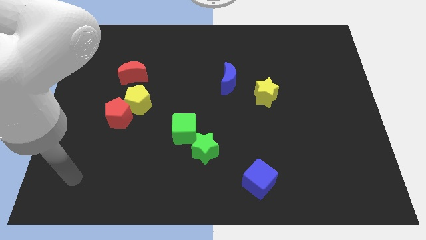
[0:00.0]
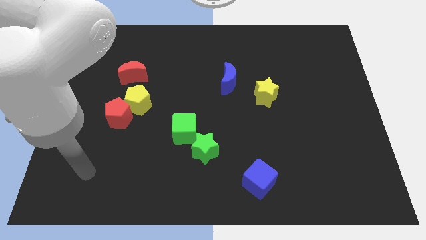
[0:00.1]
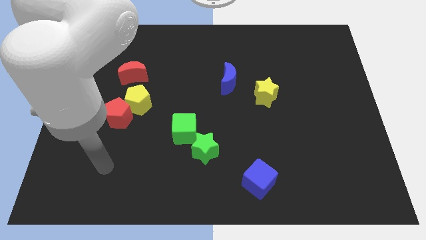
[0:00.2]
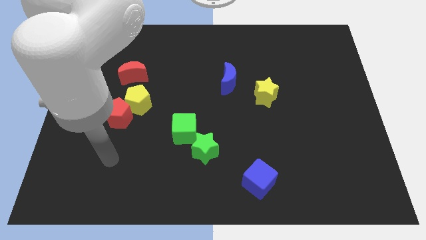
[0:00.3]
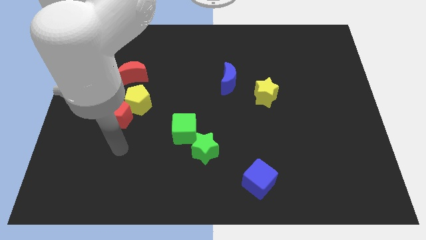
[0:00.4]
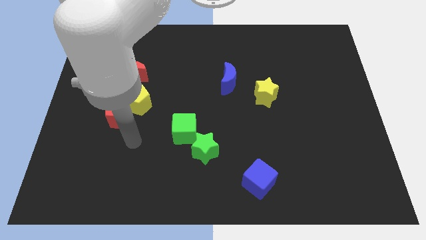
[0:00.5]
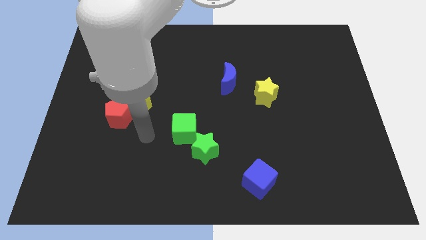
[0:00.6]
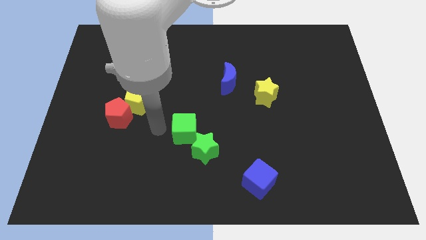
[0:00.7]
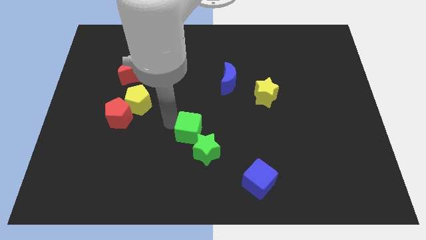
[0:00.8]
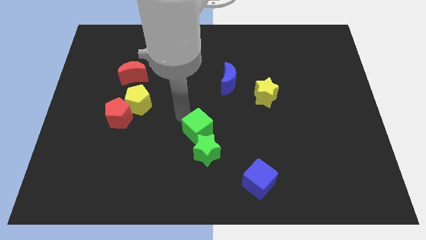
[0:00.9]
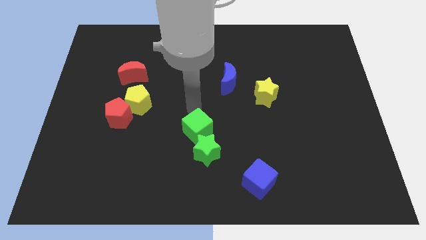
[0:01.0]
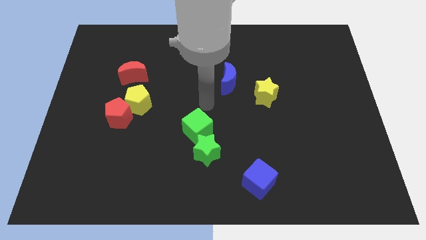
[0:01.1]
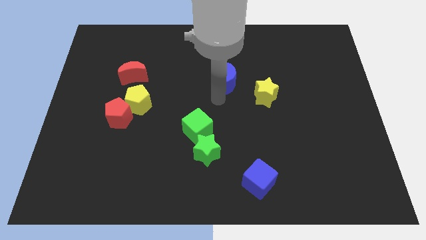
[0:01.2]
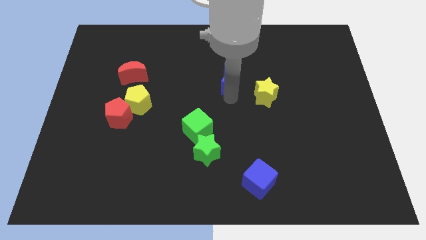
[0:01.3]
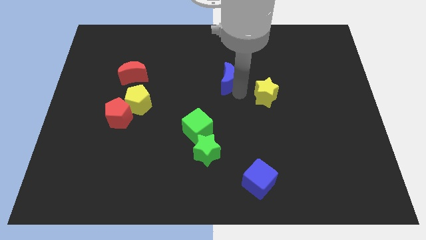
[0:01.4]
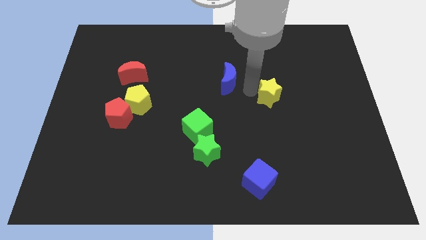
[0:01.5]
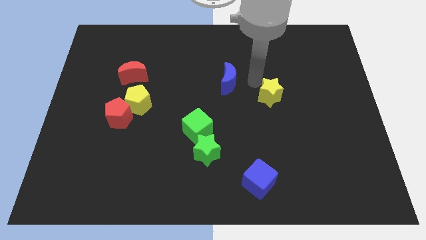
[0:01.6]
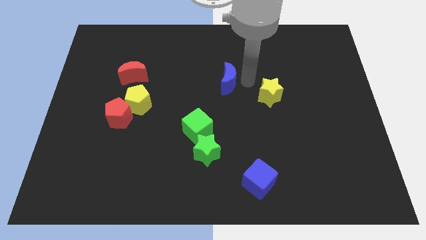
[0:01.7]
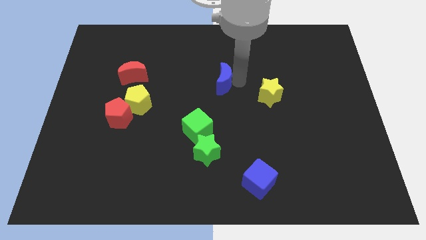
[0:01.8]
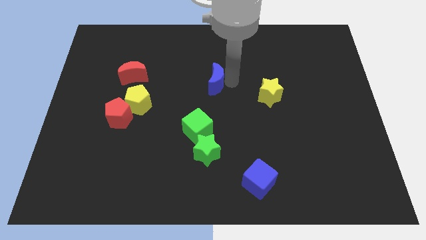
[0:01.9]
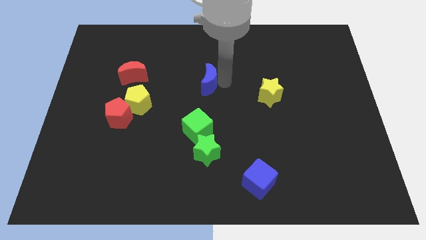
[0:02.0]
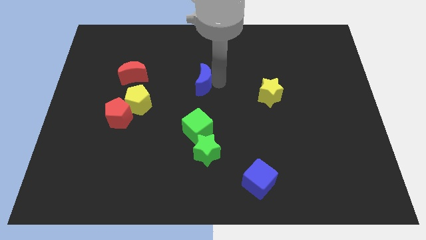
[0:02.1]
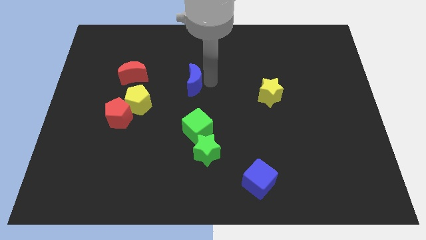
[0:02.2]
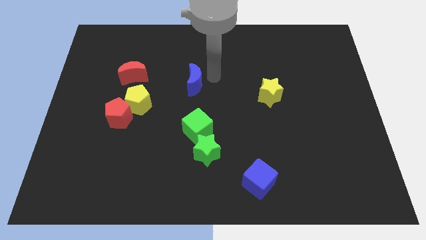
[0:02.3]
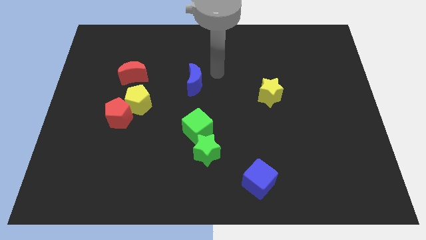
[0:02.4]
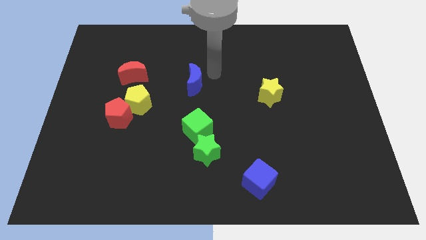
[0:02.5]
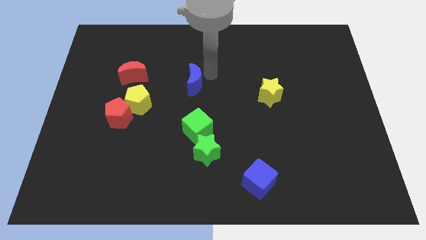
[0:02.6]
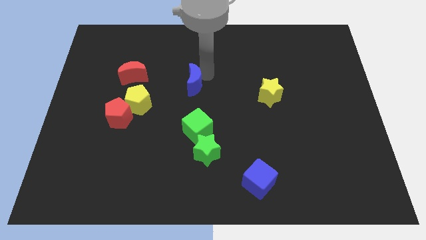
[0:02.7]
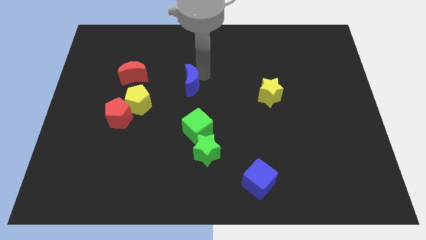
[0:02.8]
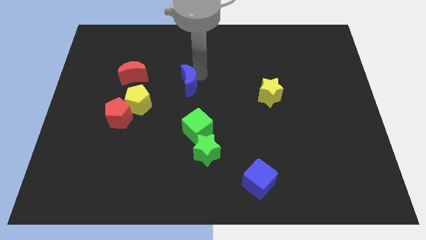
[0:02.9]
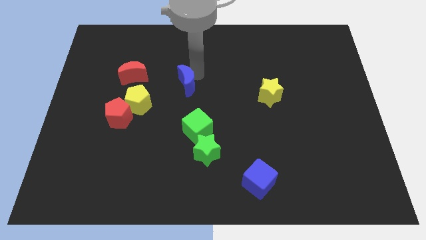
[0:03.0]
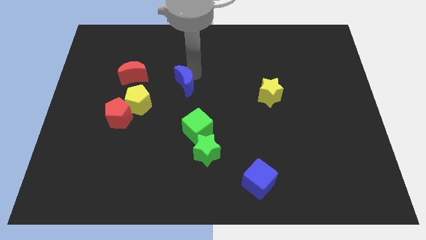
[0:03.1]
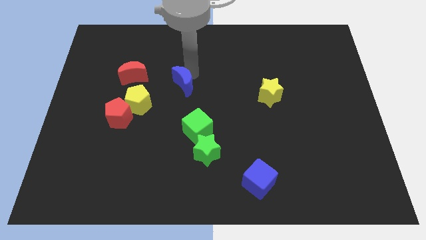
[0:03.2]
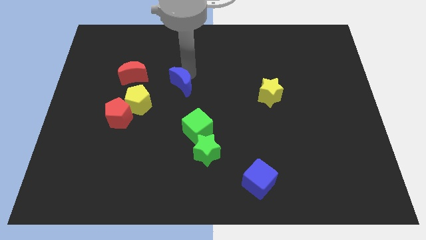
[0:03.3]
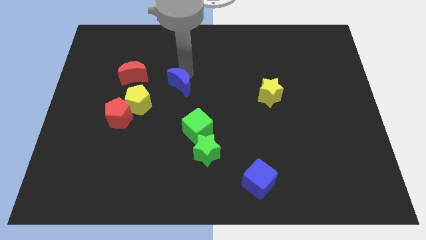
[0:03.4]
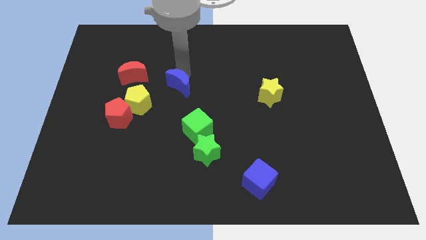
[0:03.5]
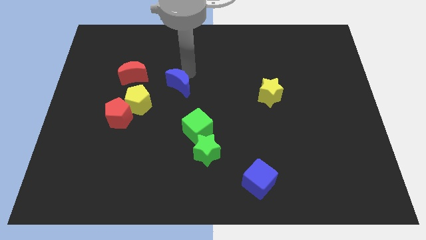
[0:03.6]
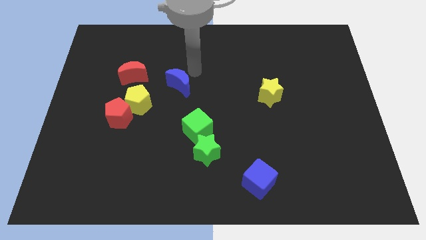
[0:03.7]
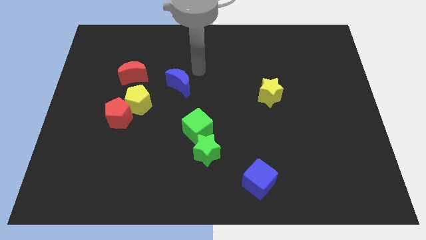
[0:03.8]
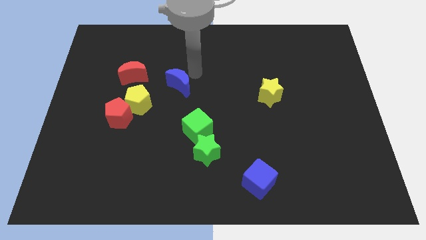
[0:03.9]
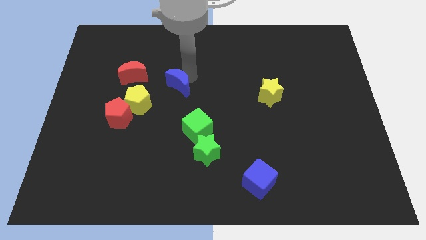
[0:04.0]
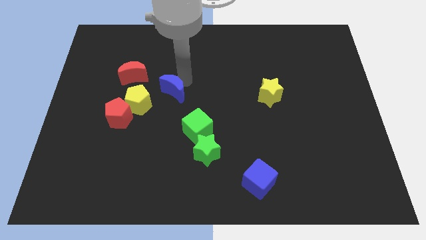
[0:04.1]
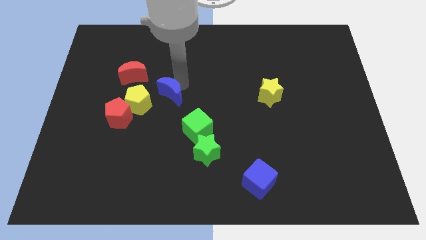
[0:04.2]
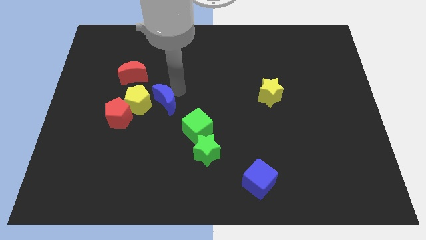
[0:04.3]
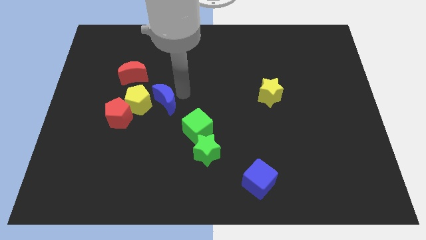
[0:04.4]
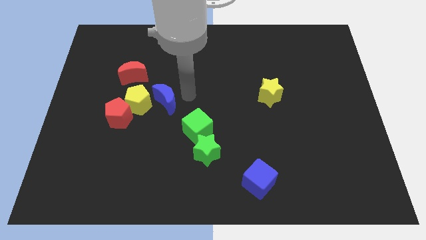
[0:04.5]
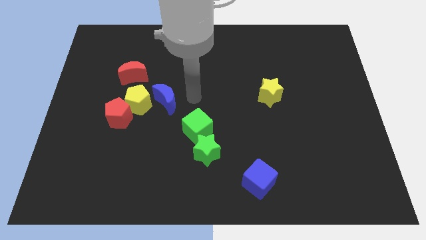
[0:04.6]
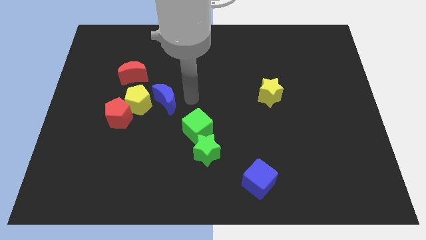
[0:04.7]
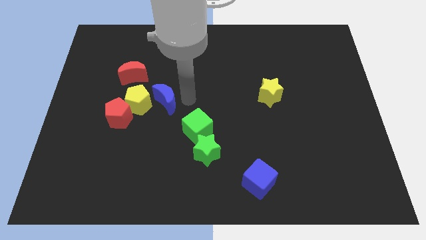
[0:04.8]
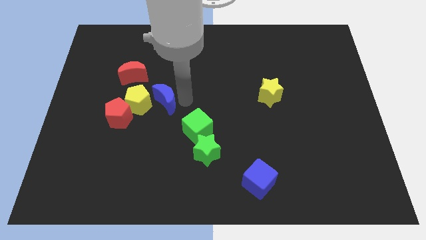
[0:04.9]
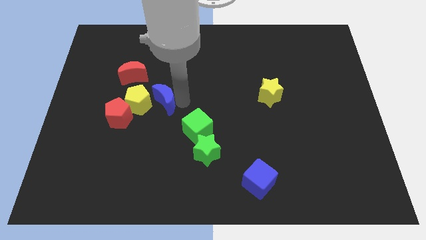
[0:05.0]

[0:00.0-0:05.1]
slide the blue moon to the yellow pentagon

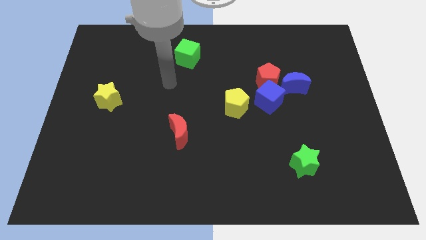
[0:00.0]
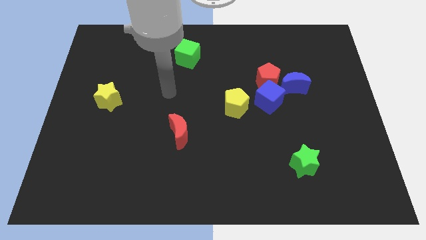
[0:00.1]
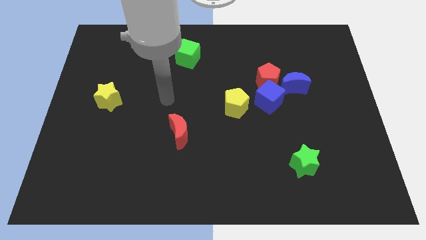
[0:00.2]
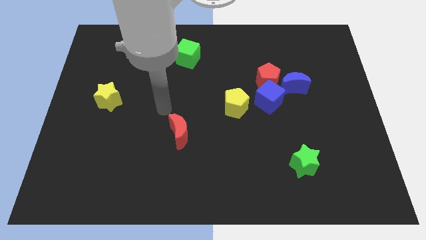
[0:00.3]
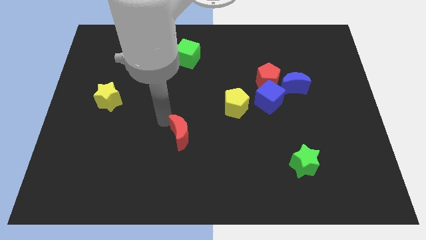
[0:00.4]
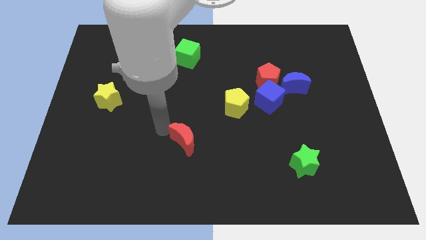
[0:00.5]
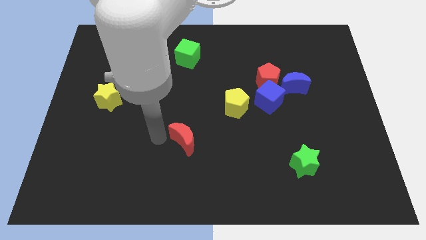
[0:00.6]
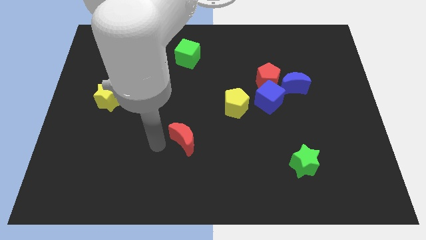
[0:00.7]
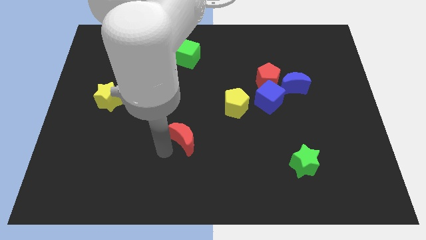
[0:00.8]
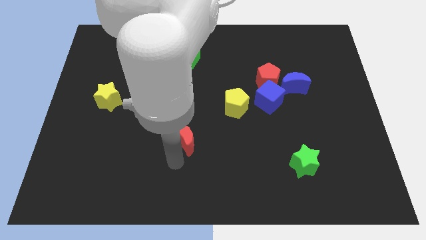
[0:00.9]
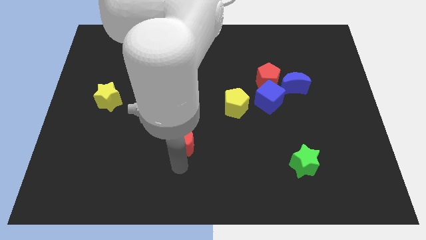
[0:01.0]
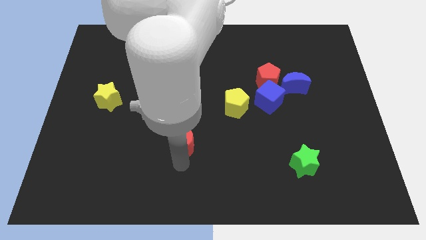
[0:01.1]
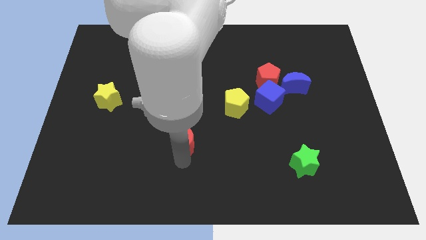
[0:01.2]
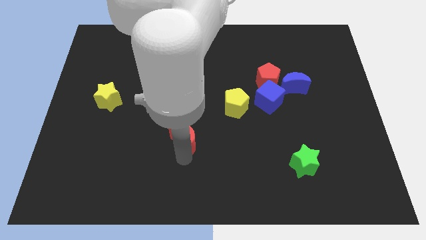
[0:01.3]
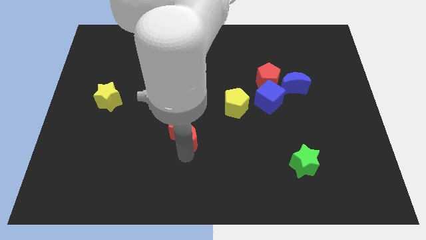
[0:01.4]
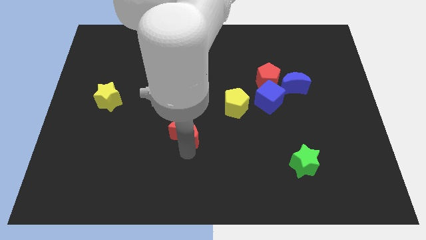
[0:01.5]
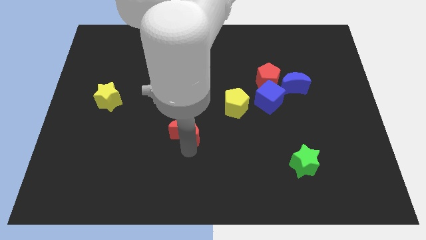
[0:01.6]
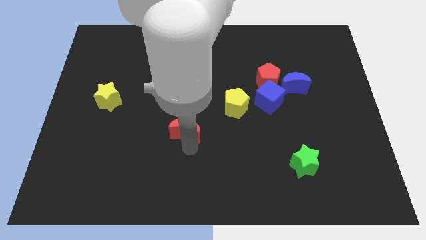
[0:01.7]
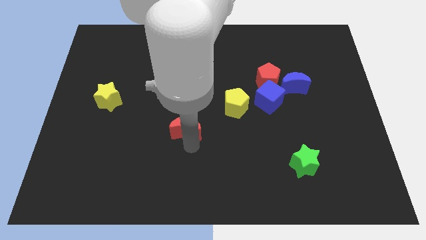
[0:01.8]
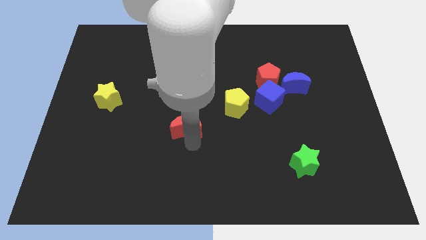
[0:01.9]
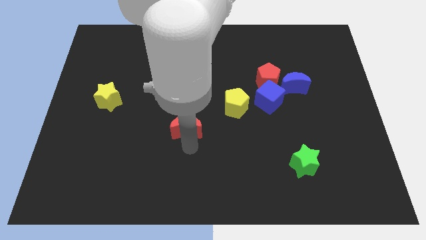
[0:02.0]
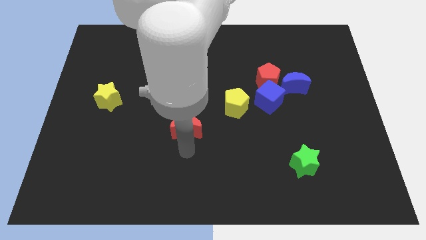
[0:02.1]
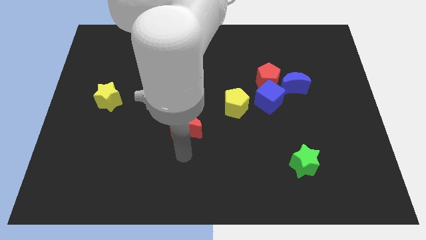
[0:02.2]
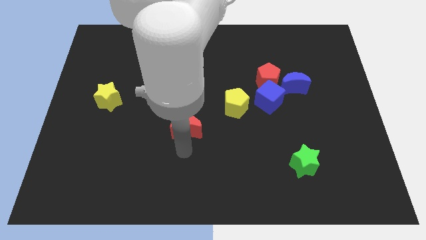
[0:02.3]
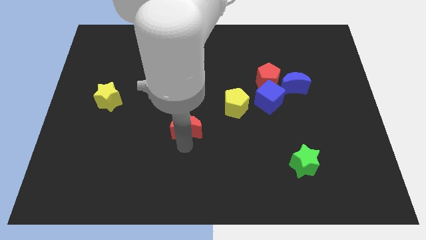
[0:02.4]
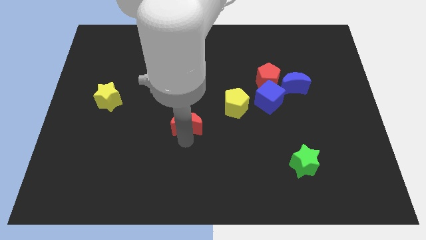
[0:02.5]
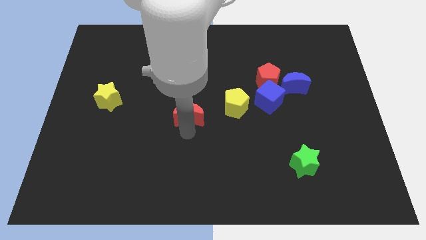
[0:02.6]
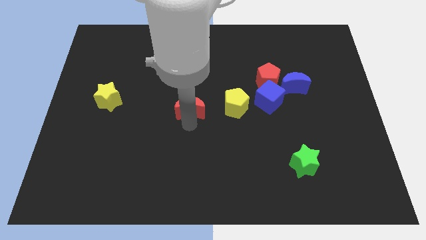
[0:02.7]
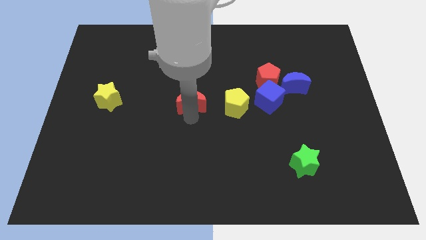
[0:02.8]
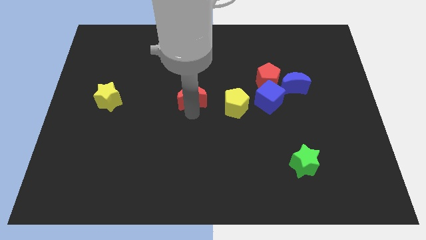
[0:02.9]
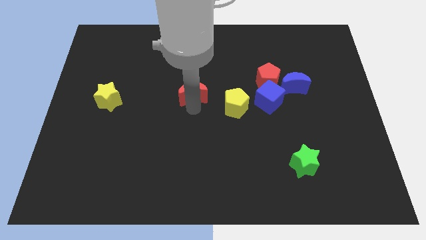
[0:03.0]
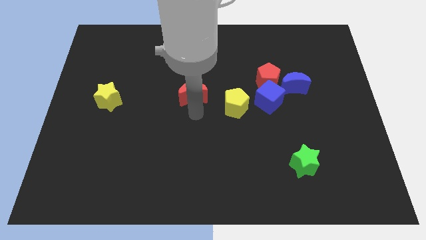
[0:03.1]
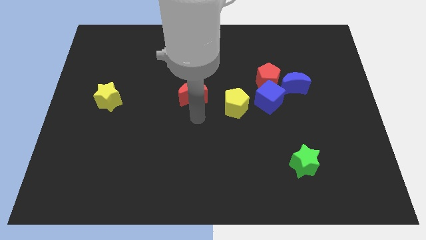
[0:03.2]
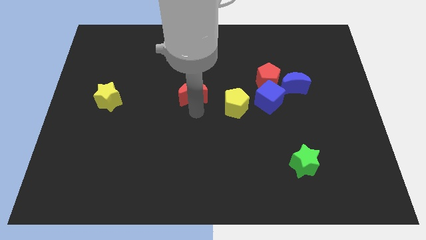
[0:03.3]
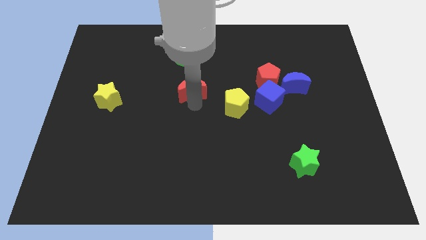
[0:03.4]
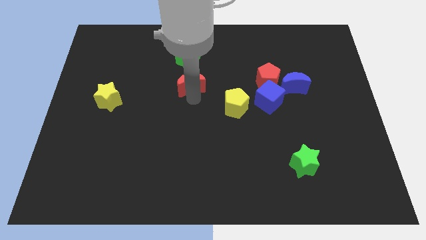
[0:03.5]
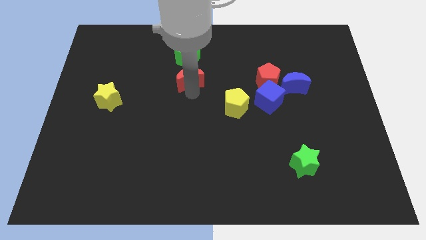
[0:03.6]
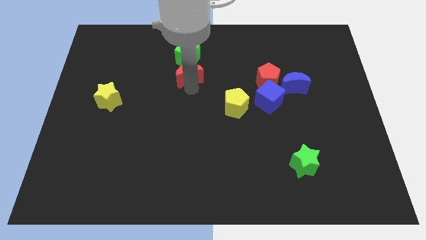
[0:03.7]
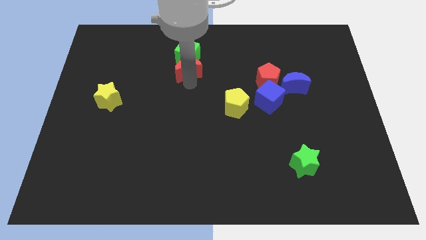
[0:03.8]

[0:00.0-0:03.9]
move the red moon close to the green cube
